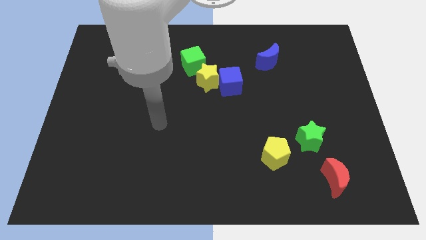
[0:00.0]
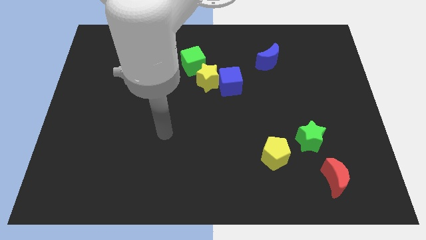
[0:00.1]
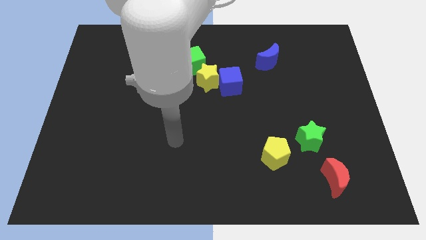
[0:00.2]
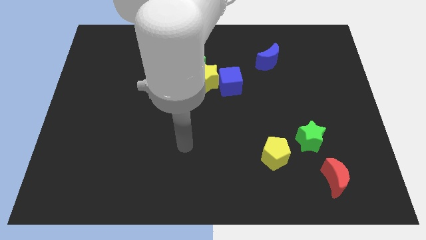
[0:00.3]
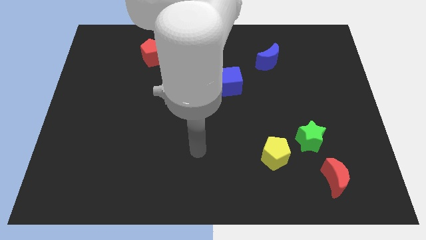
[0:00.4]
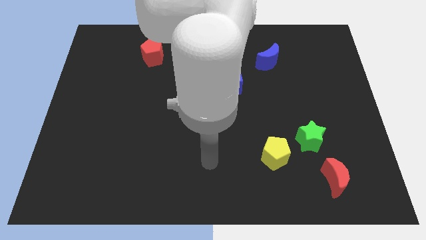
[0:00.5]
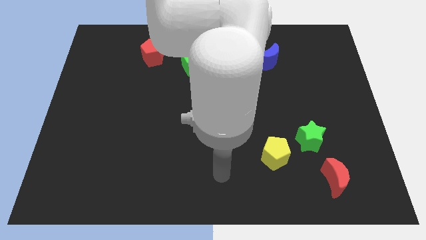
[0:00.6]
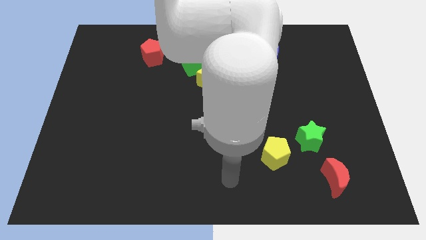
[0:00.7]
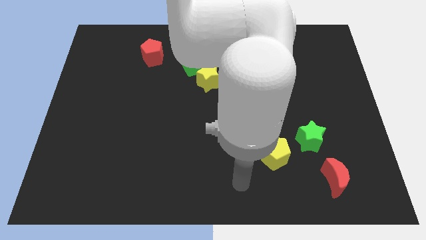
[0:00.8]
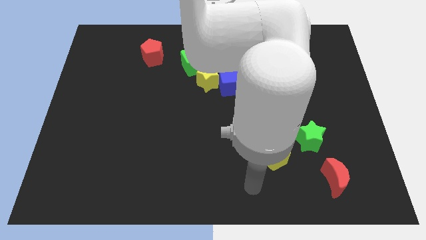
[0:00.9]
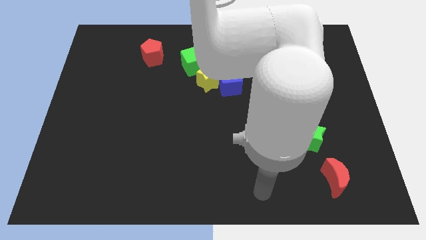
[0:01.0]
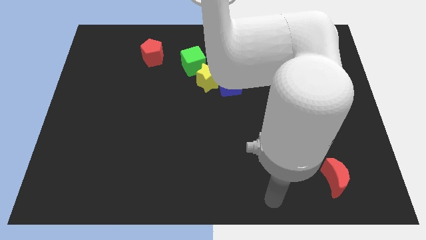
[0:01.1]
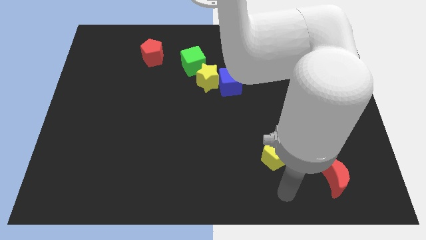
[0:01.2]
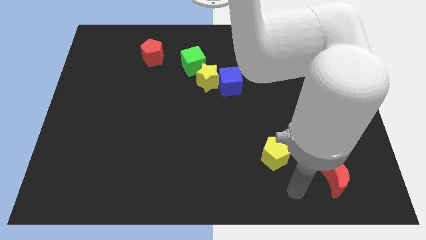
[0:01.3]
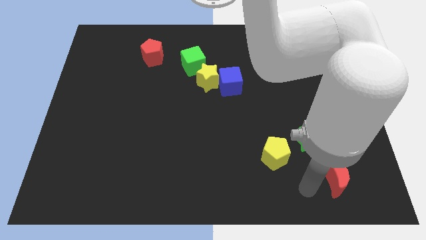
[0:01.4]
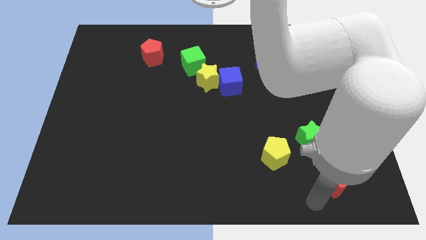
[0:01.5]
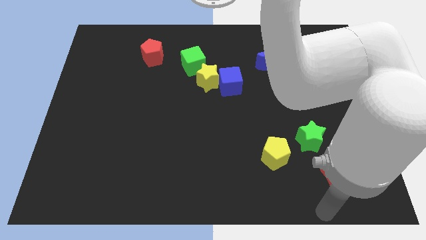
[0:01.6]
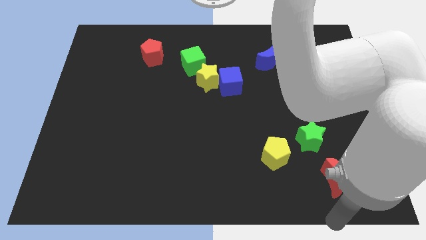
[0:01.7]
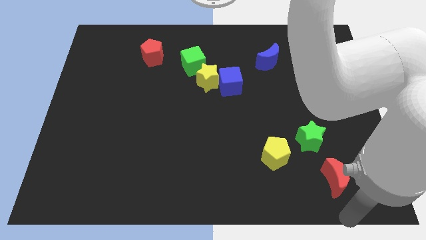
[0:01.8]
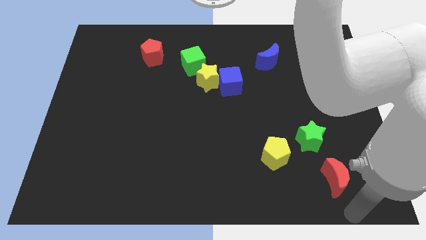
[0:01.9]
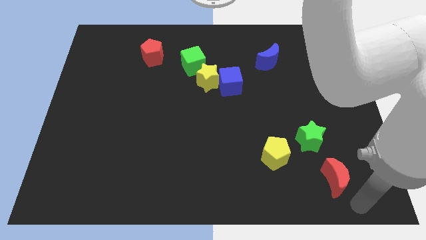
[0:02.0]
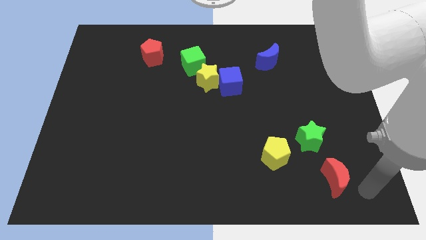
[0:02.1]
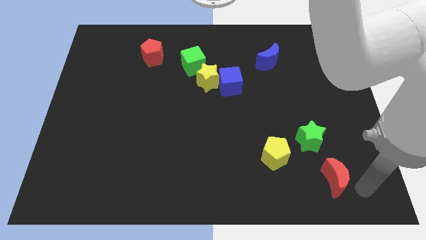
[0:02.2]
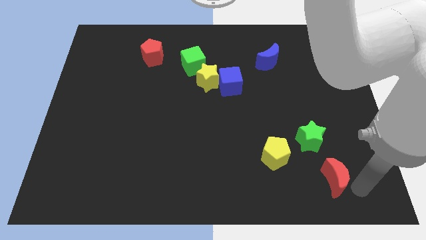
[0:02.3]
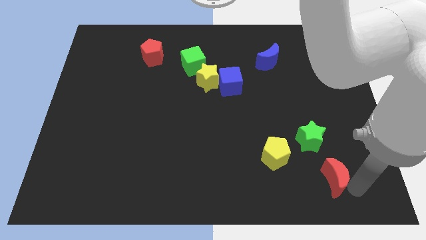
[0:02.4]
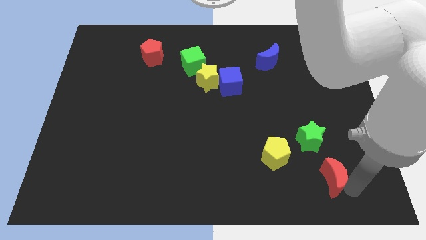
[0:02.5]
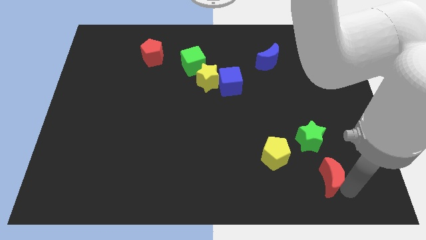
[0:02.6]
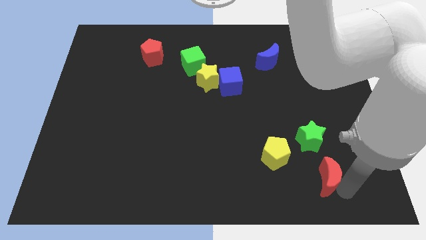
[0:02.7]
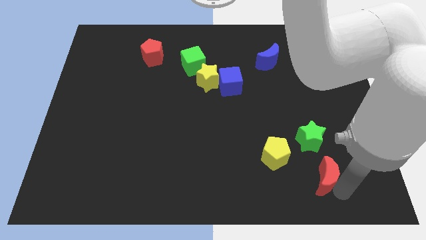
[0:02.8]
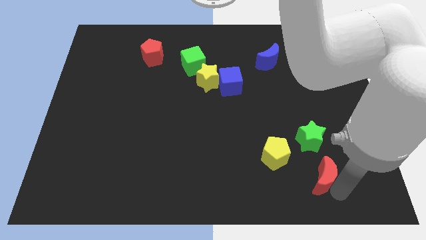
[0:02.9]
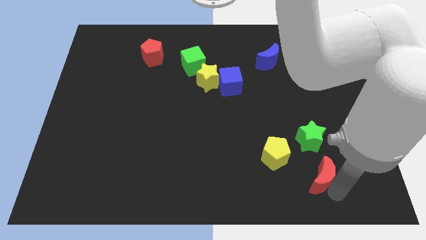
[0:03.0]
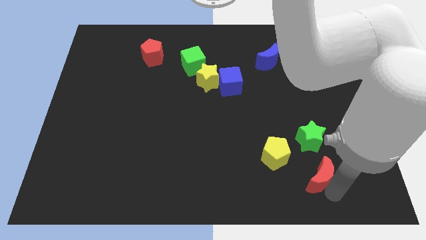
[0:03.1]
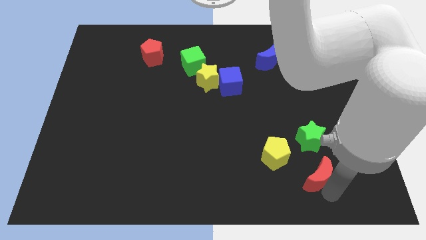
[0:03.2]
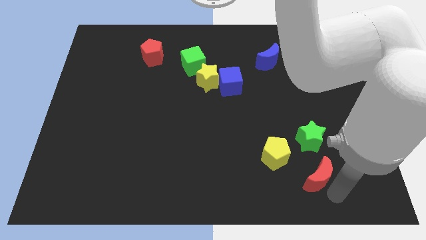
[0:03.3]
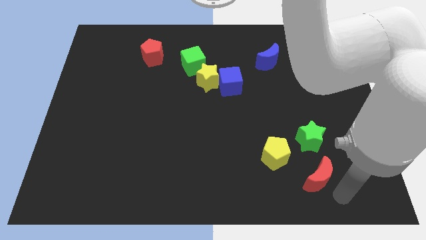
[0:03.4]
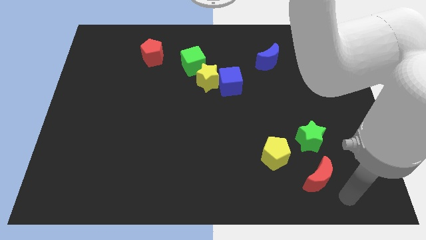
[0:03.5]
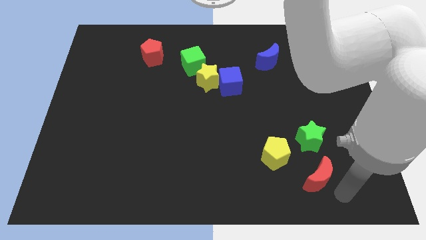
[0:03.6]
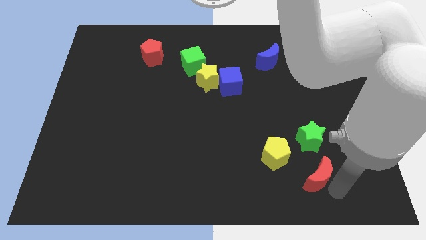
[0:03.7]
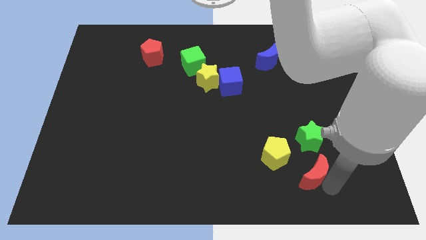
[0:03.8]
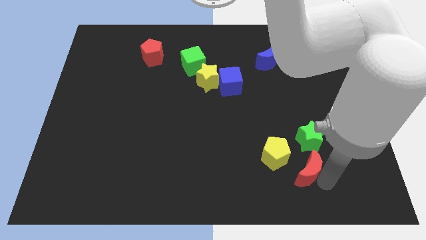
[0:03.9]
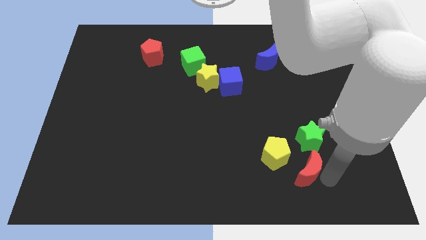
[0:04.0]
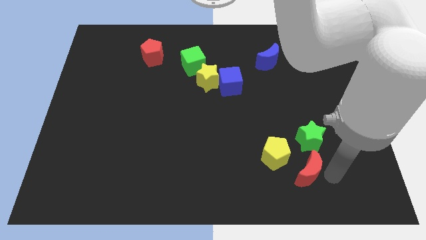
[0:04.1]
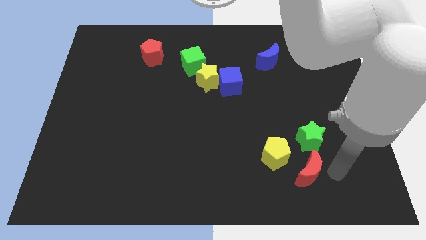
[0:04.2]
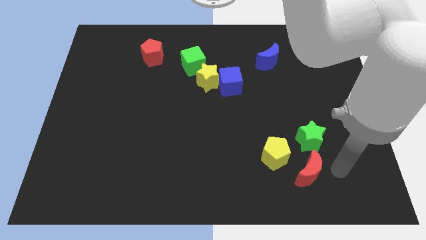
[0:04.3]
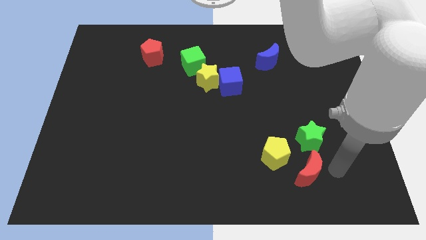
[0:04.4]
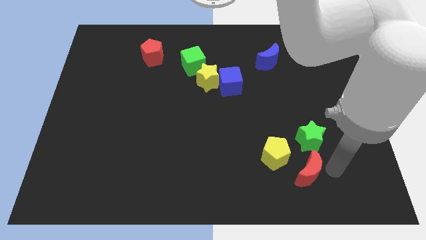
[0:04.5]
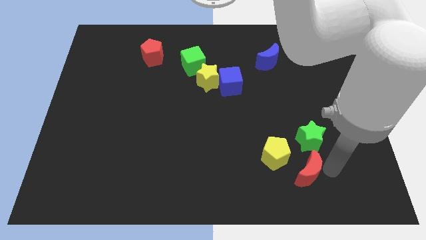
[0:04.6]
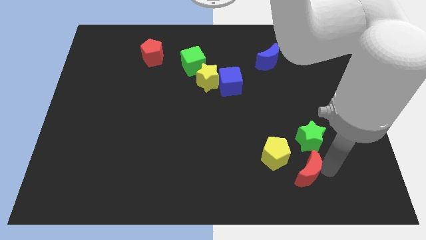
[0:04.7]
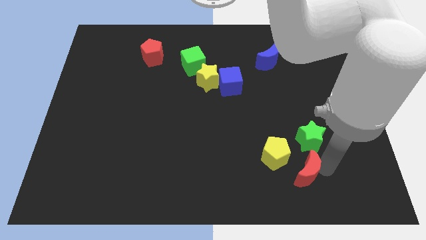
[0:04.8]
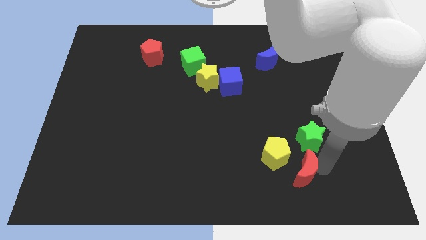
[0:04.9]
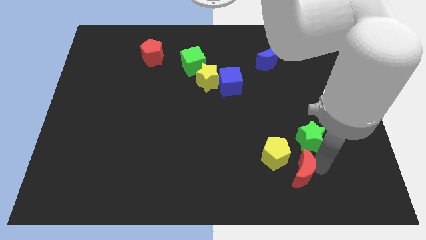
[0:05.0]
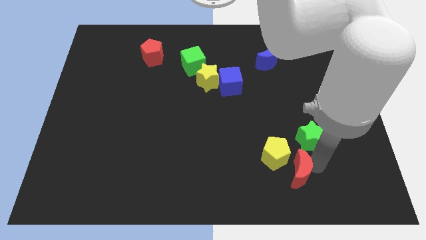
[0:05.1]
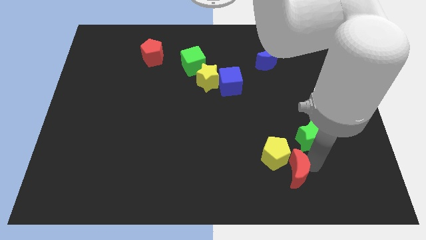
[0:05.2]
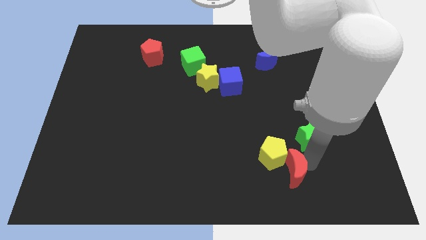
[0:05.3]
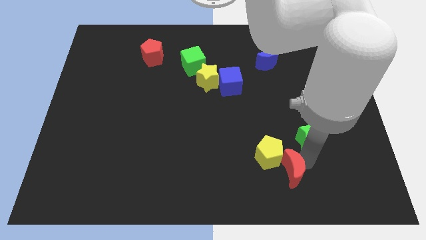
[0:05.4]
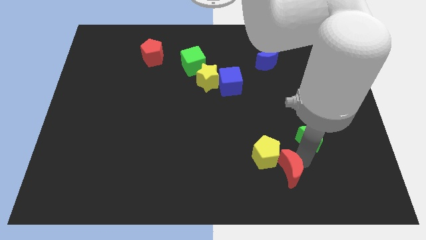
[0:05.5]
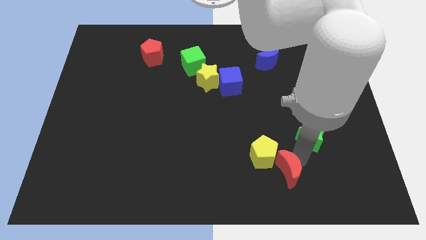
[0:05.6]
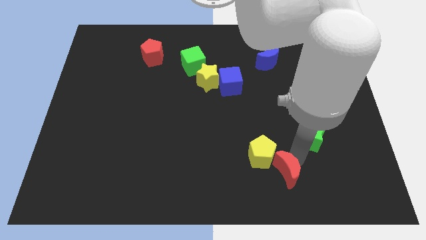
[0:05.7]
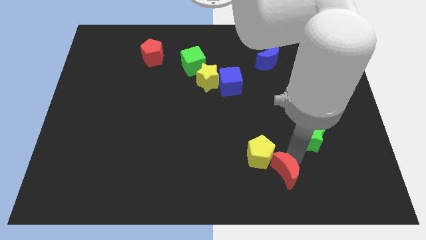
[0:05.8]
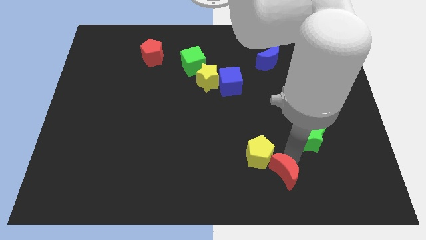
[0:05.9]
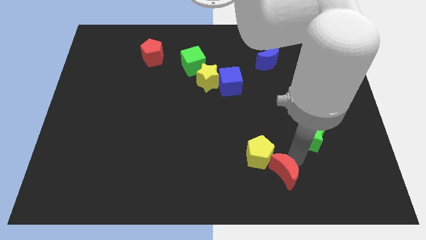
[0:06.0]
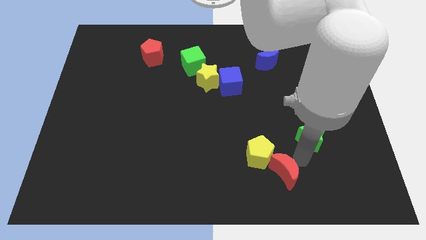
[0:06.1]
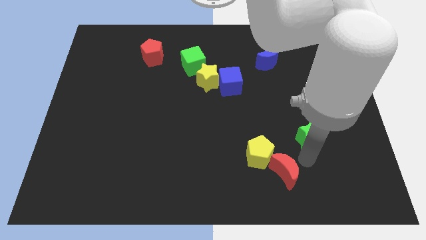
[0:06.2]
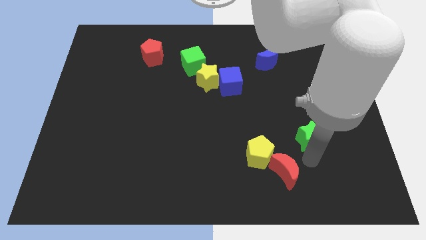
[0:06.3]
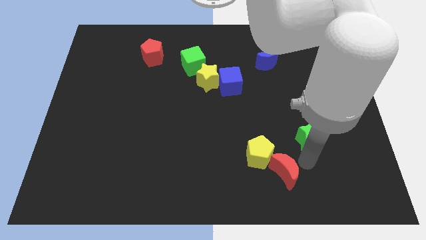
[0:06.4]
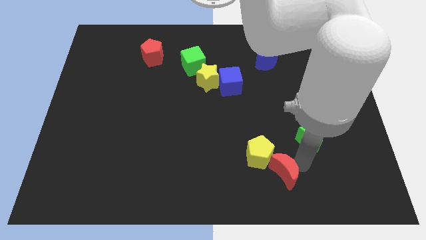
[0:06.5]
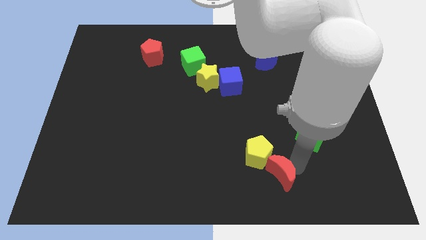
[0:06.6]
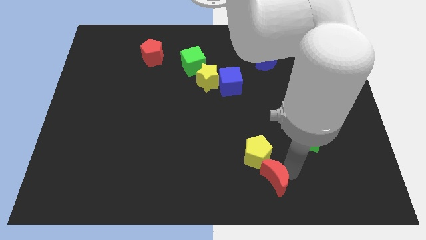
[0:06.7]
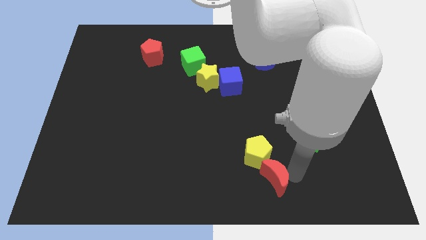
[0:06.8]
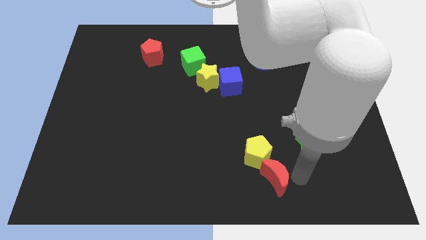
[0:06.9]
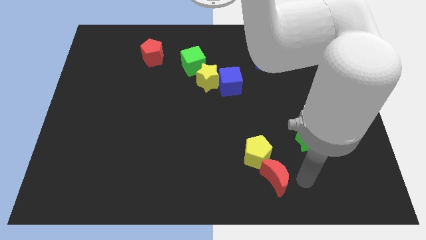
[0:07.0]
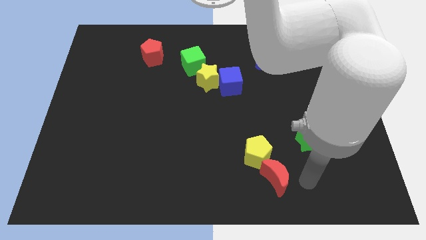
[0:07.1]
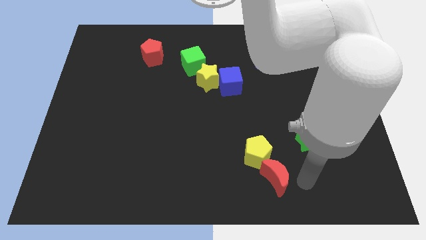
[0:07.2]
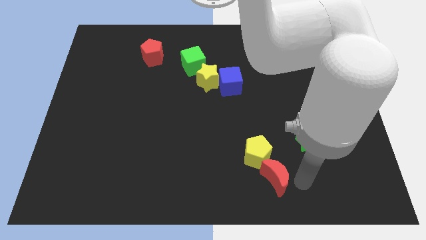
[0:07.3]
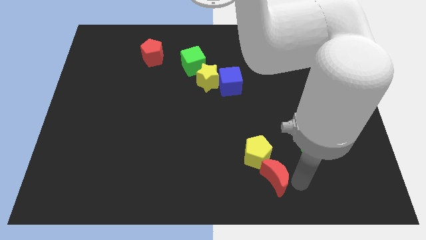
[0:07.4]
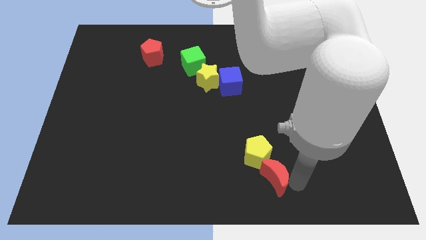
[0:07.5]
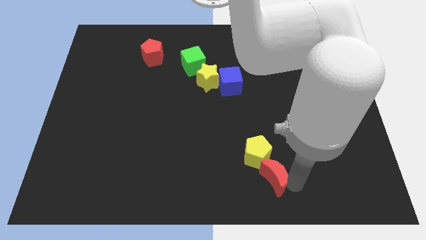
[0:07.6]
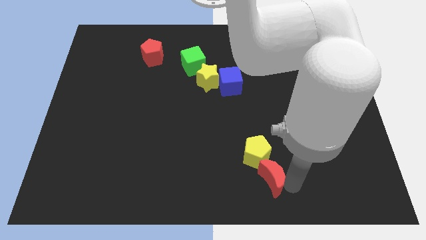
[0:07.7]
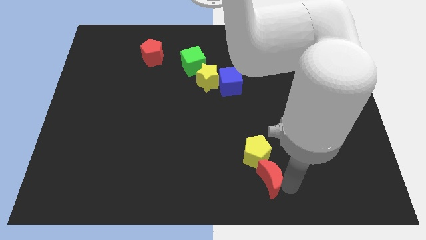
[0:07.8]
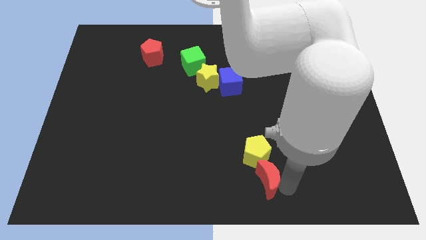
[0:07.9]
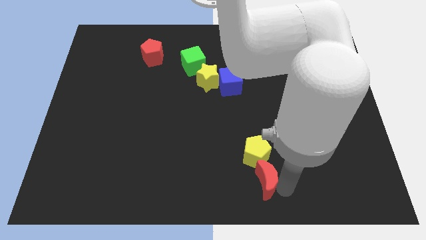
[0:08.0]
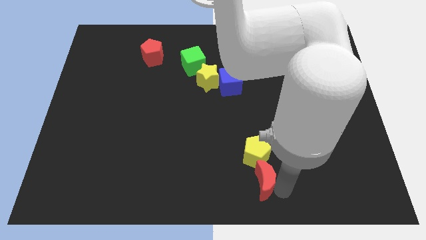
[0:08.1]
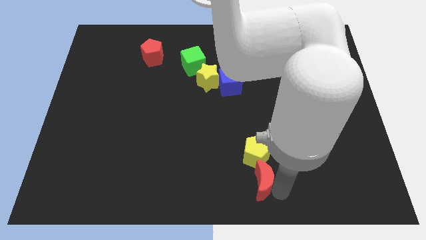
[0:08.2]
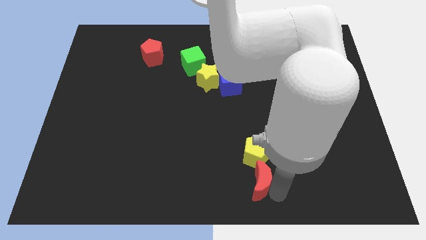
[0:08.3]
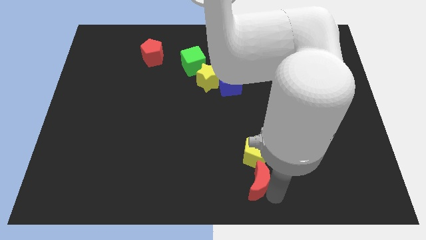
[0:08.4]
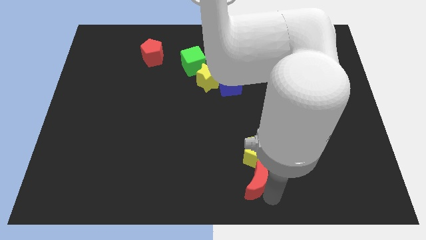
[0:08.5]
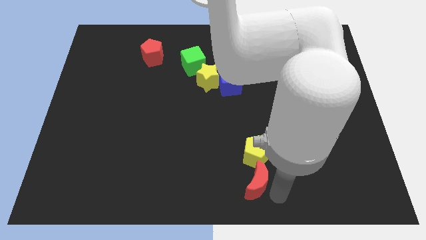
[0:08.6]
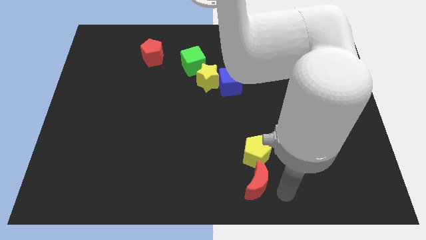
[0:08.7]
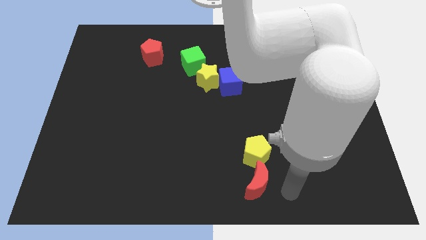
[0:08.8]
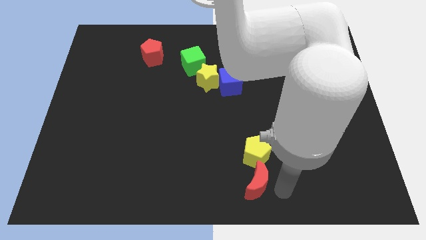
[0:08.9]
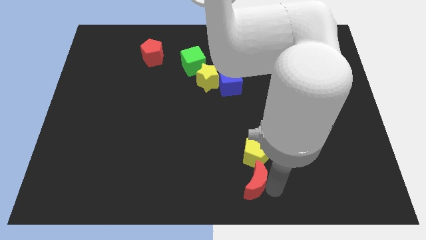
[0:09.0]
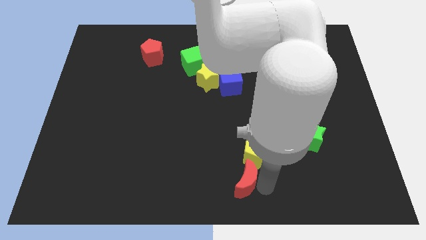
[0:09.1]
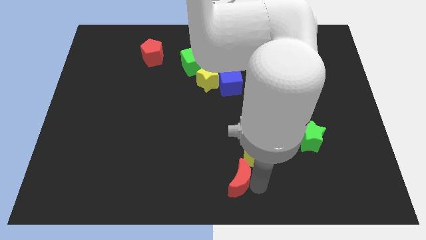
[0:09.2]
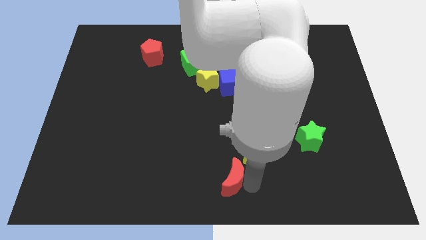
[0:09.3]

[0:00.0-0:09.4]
move the red moon to the left
